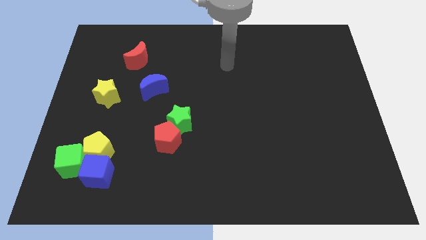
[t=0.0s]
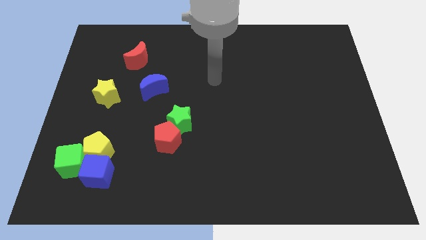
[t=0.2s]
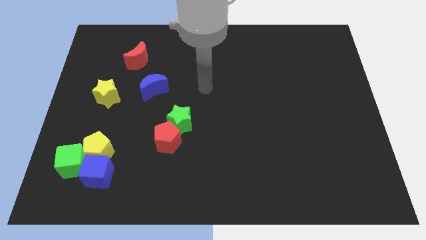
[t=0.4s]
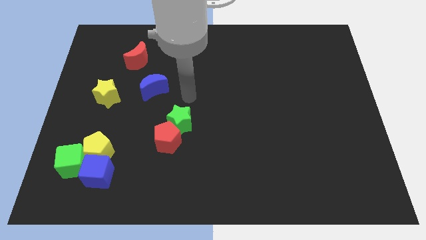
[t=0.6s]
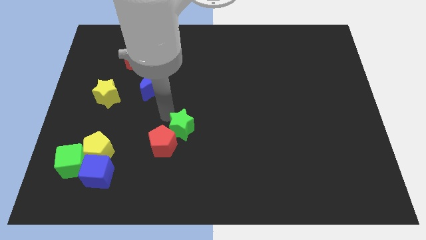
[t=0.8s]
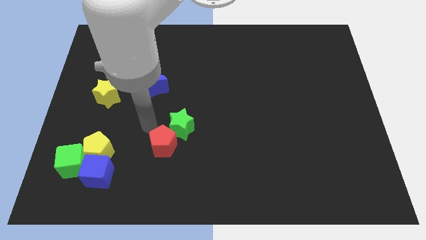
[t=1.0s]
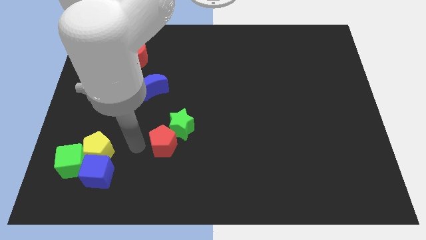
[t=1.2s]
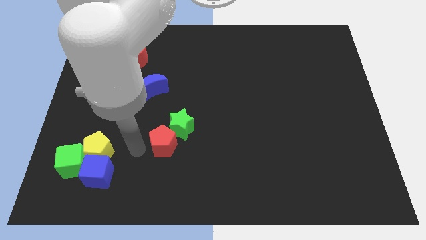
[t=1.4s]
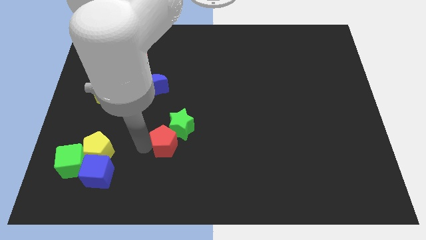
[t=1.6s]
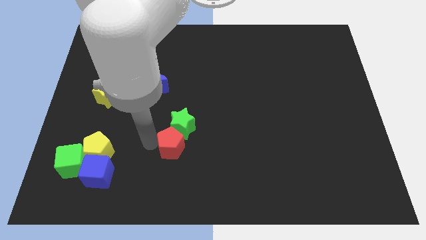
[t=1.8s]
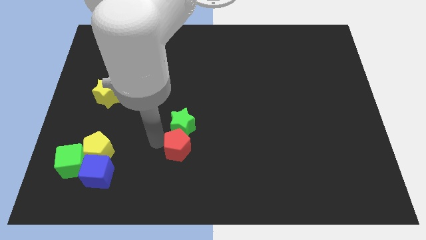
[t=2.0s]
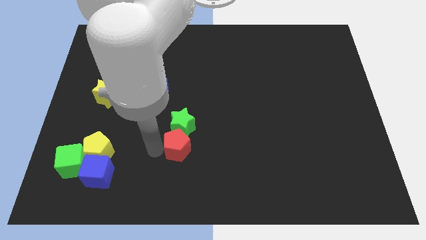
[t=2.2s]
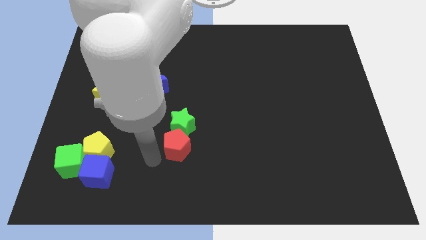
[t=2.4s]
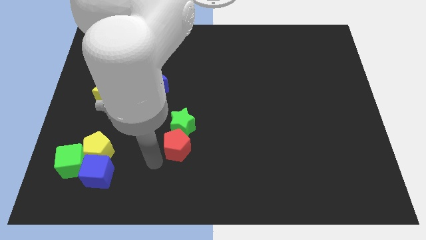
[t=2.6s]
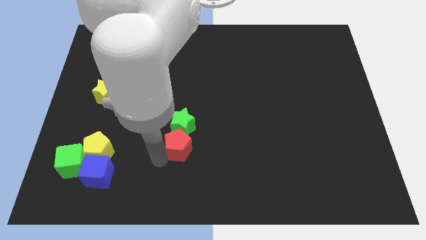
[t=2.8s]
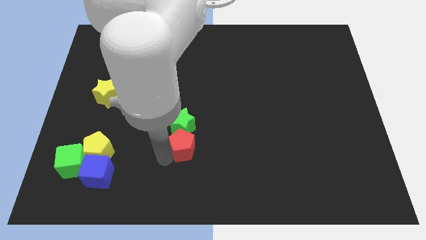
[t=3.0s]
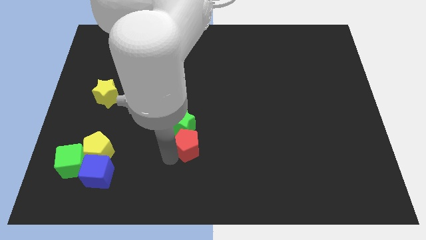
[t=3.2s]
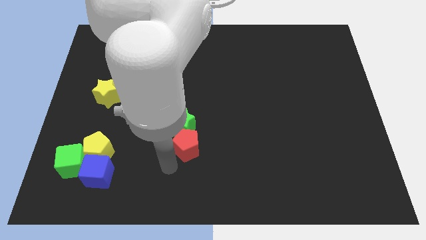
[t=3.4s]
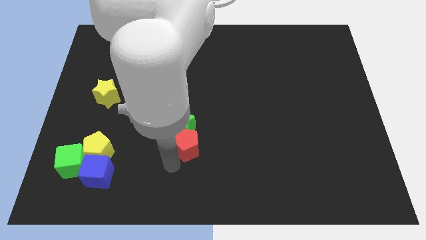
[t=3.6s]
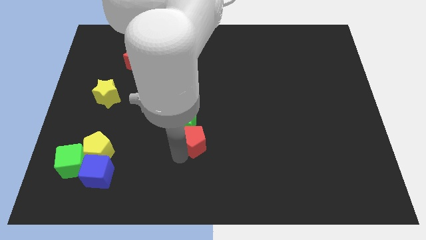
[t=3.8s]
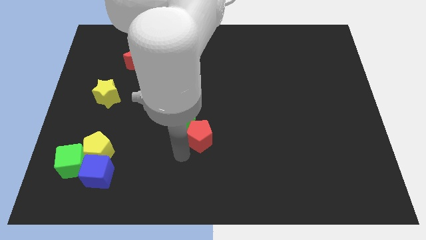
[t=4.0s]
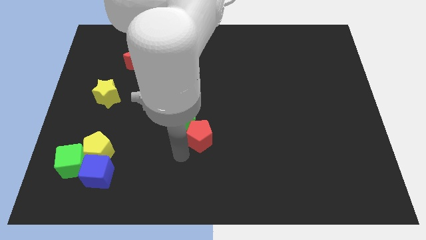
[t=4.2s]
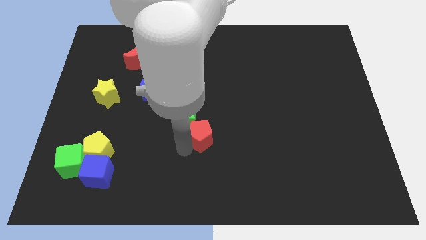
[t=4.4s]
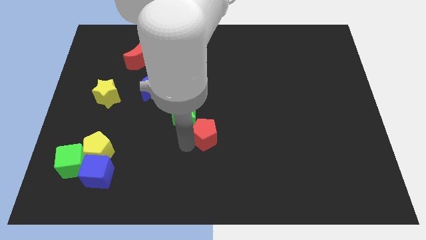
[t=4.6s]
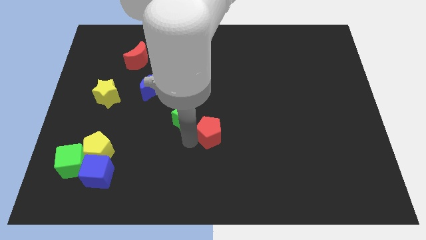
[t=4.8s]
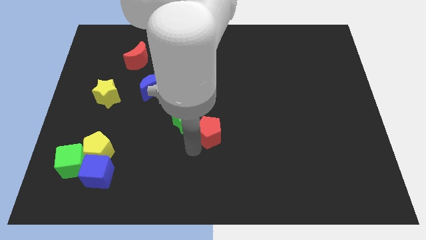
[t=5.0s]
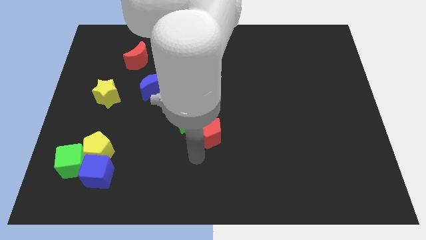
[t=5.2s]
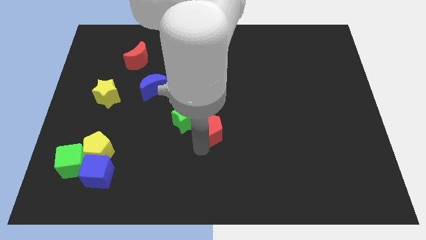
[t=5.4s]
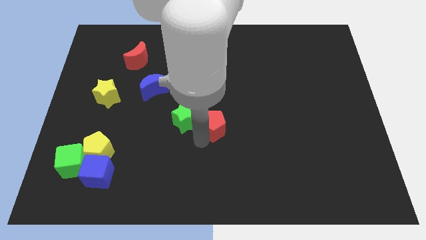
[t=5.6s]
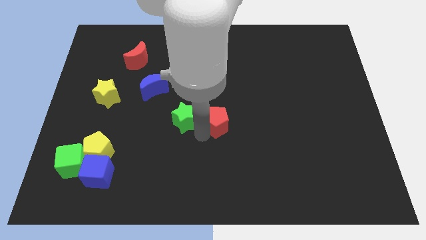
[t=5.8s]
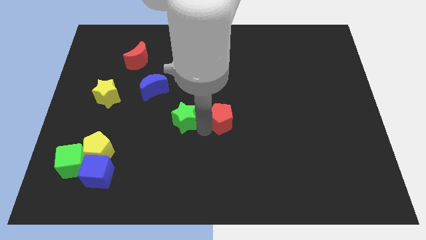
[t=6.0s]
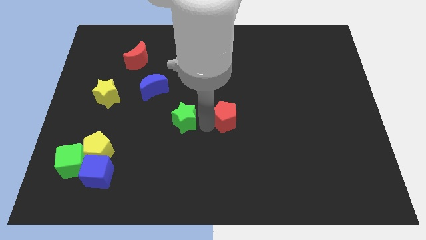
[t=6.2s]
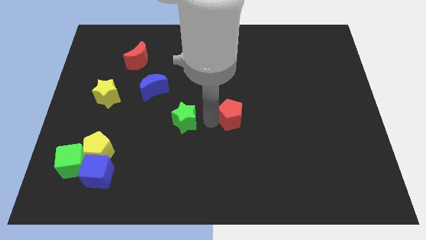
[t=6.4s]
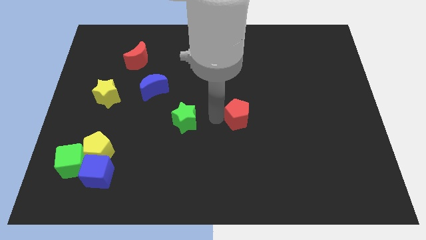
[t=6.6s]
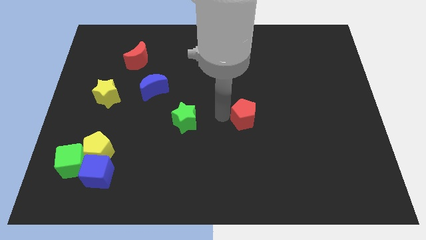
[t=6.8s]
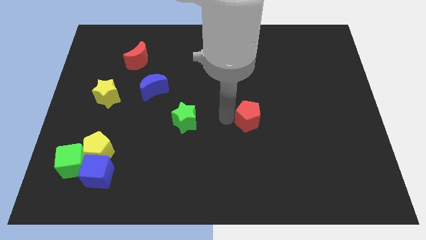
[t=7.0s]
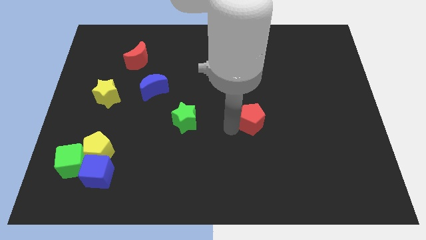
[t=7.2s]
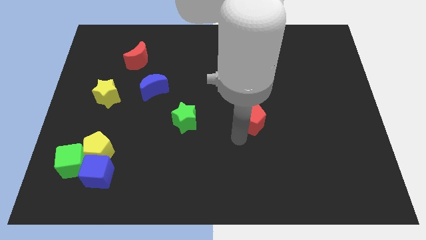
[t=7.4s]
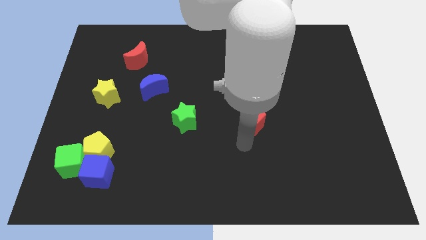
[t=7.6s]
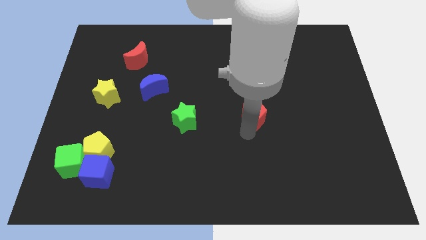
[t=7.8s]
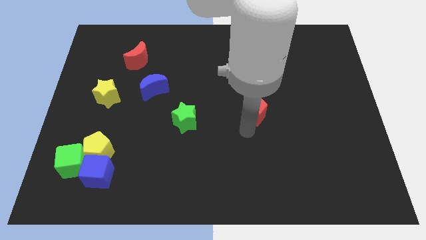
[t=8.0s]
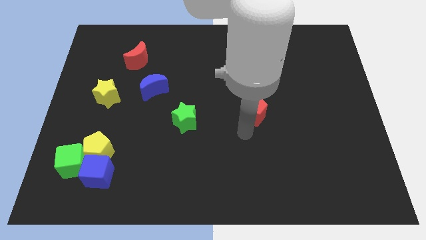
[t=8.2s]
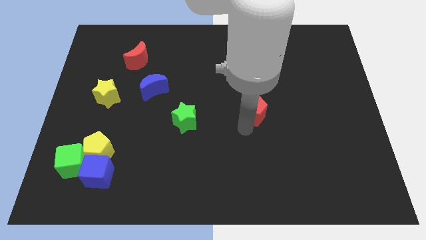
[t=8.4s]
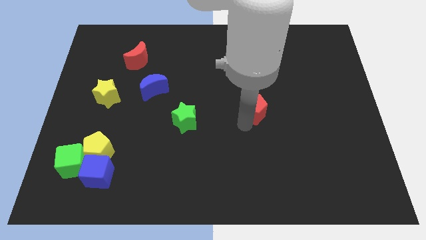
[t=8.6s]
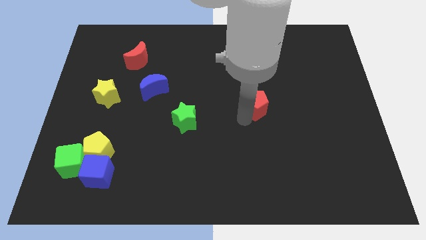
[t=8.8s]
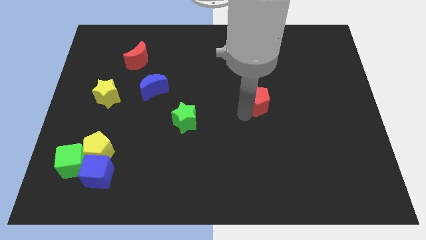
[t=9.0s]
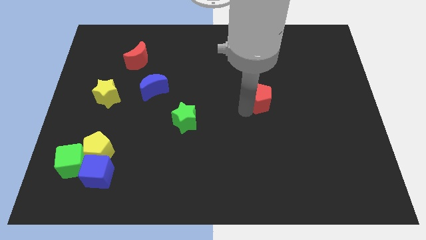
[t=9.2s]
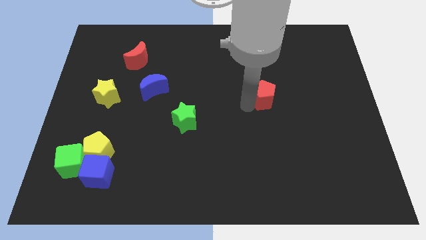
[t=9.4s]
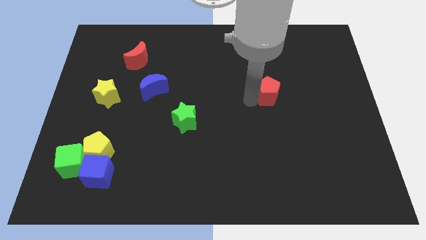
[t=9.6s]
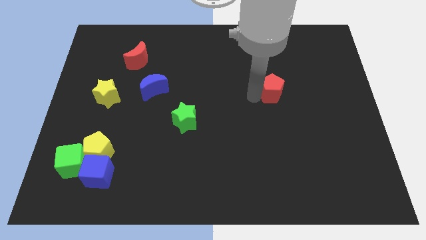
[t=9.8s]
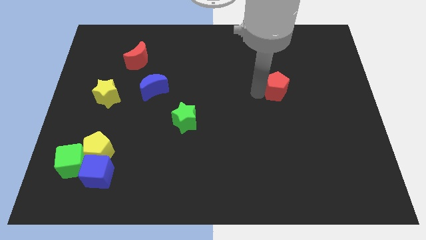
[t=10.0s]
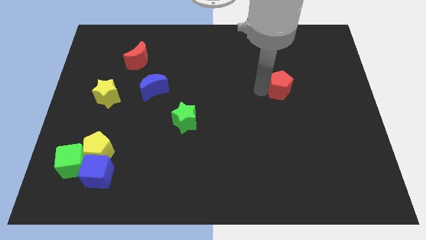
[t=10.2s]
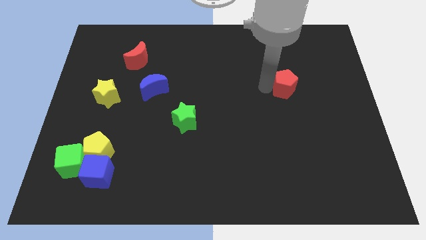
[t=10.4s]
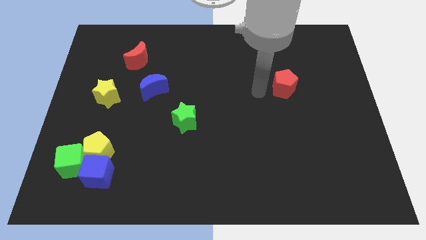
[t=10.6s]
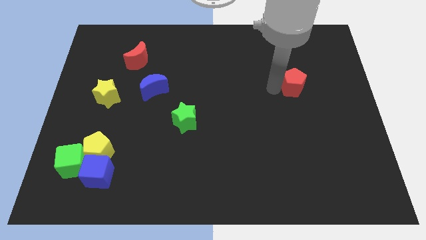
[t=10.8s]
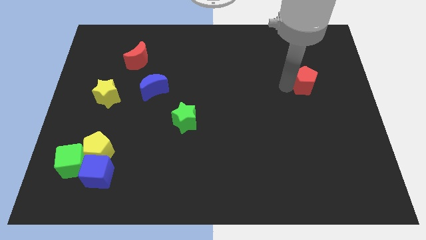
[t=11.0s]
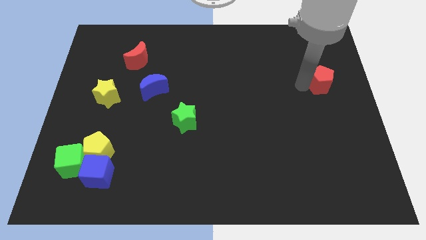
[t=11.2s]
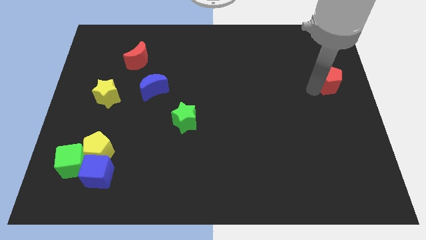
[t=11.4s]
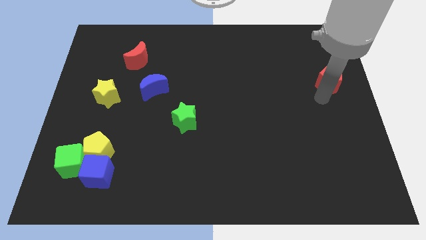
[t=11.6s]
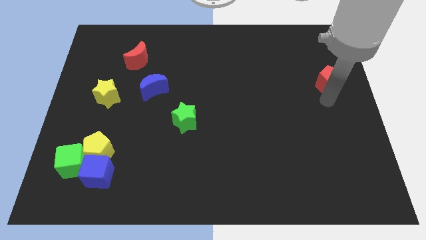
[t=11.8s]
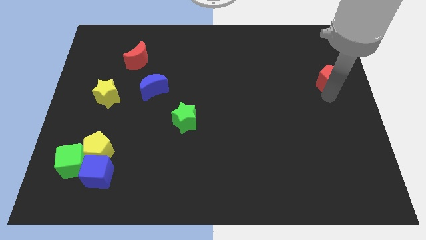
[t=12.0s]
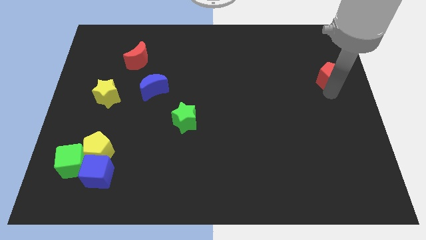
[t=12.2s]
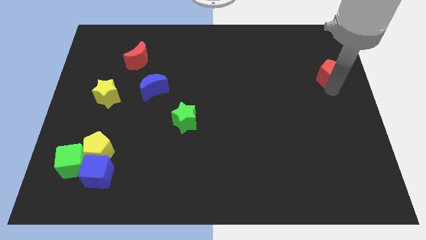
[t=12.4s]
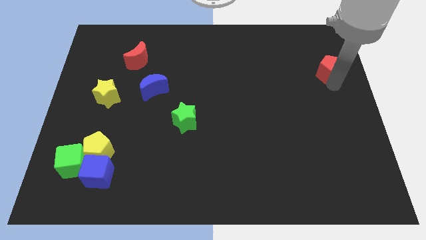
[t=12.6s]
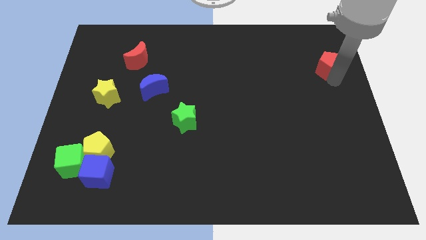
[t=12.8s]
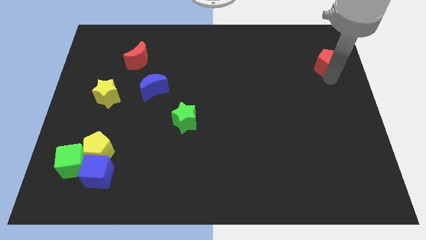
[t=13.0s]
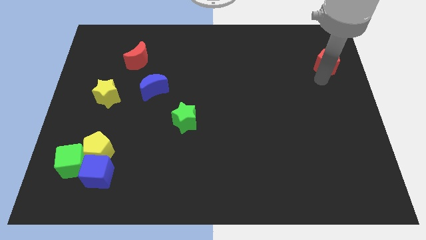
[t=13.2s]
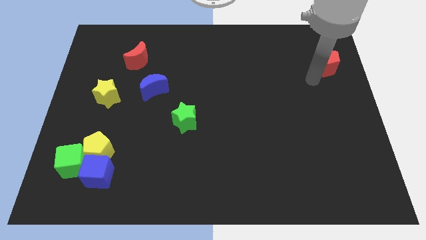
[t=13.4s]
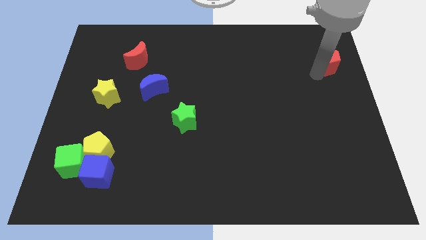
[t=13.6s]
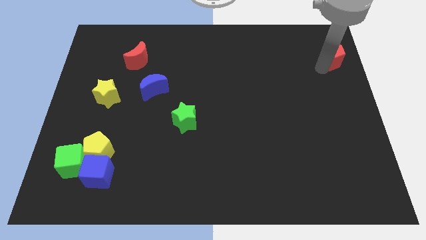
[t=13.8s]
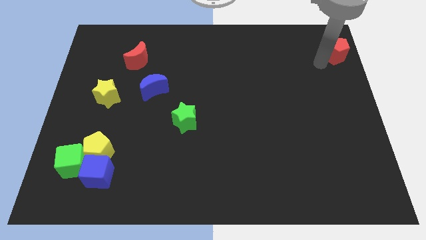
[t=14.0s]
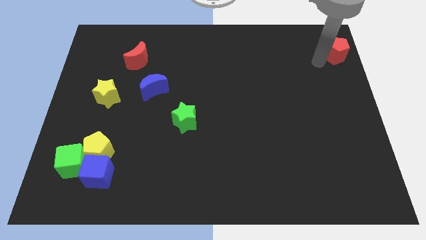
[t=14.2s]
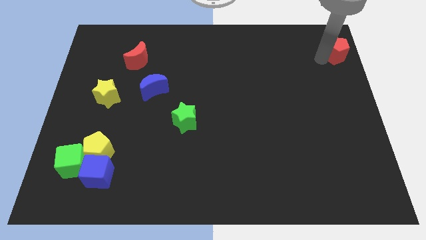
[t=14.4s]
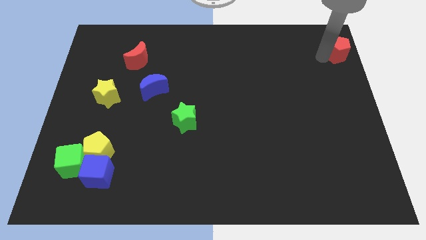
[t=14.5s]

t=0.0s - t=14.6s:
slide the red pentagon to the top right corner

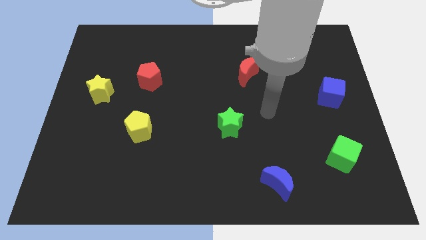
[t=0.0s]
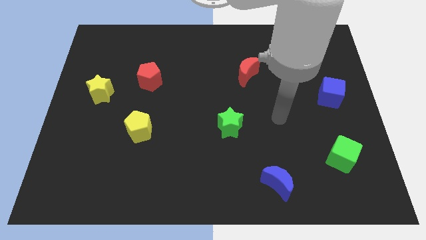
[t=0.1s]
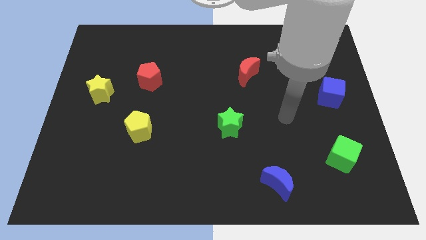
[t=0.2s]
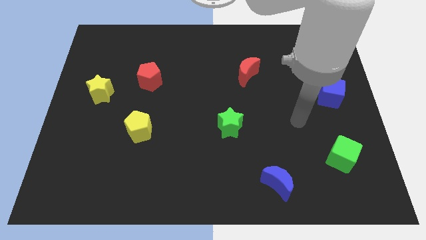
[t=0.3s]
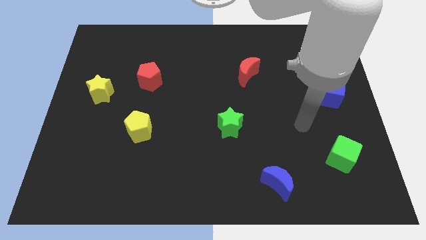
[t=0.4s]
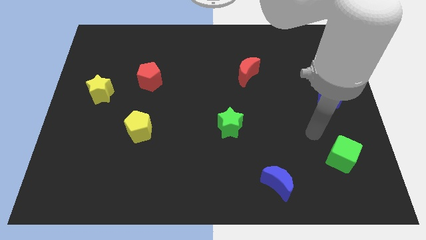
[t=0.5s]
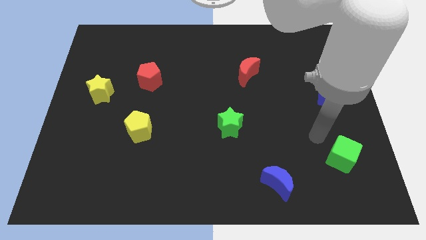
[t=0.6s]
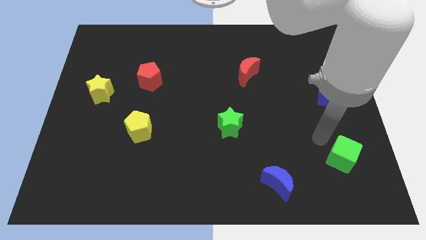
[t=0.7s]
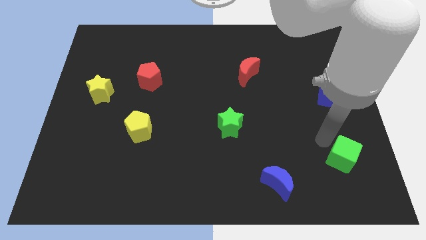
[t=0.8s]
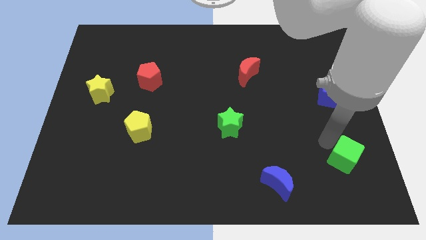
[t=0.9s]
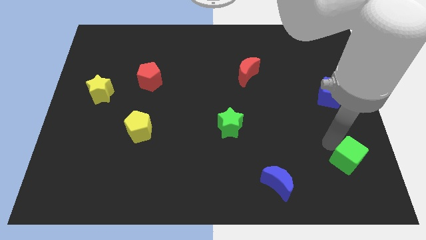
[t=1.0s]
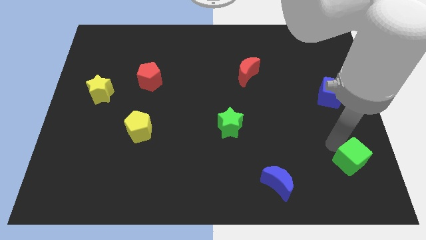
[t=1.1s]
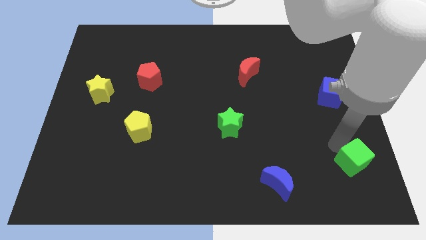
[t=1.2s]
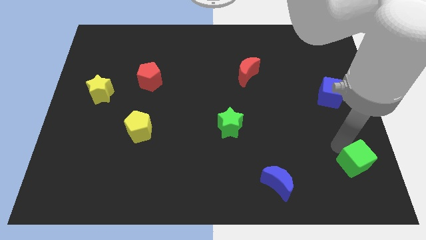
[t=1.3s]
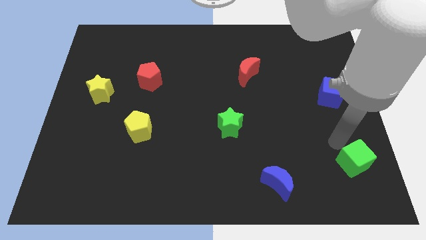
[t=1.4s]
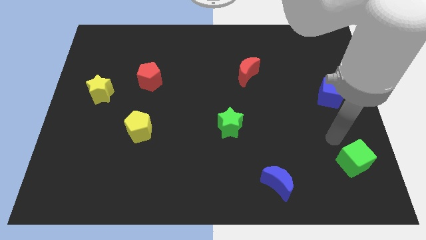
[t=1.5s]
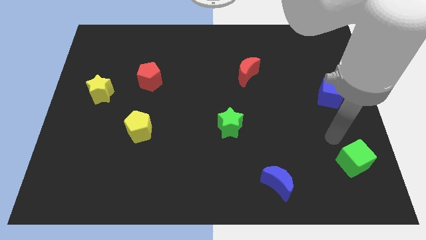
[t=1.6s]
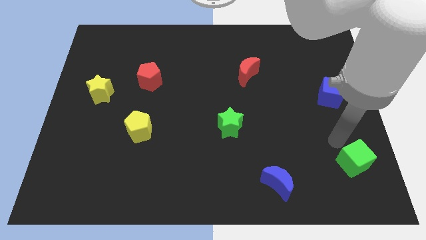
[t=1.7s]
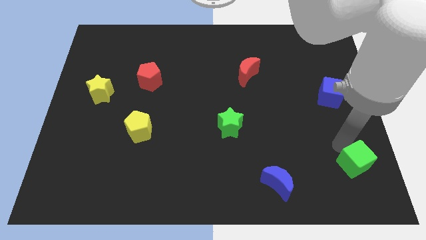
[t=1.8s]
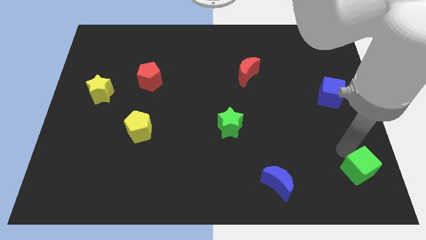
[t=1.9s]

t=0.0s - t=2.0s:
push the green cube to the bottom right corner
